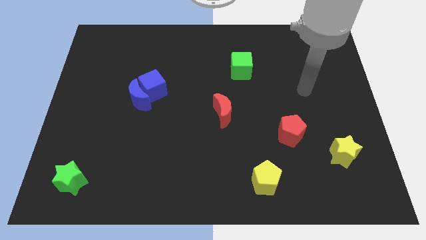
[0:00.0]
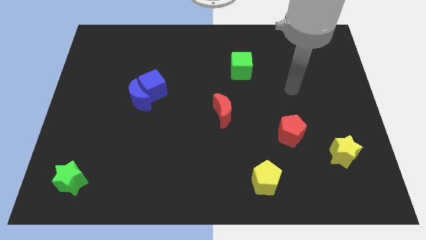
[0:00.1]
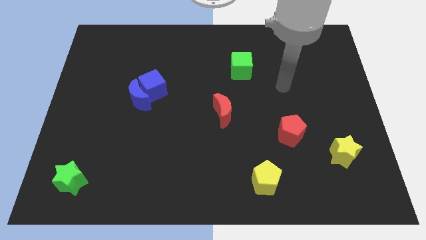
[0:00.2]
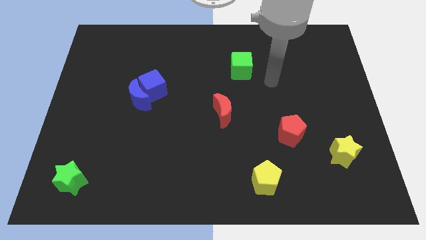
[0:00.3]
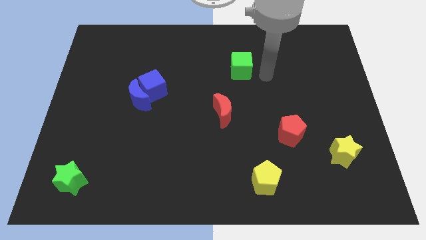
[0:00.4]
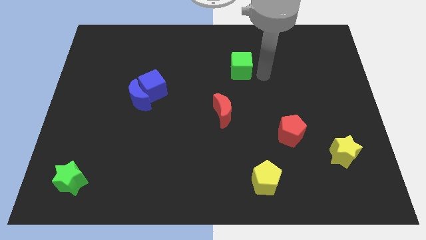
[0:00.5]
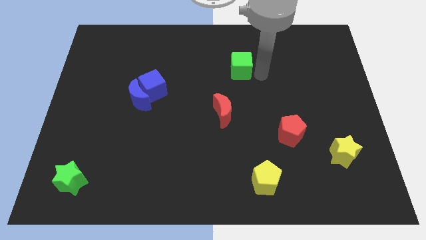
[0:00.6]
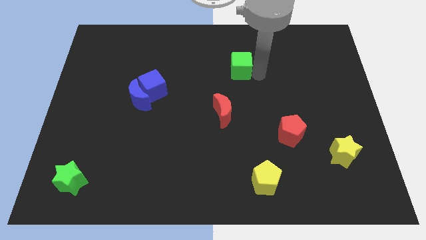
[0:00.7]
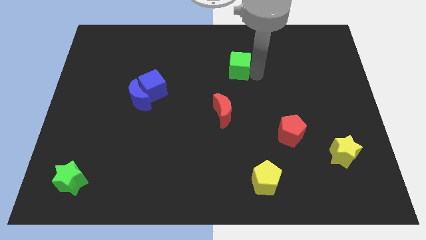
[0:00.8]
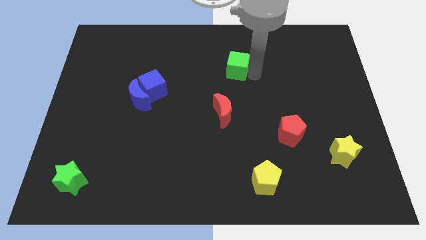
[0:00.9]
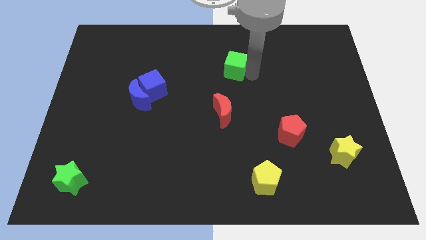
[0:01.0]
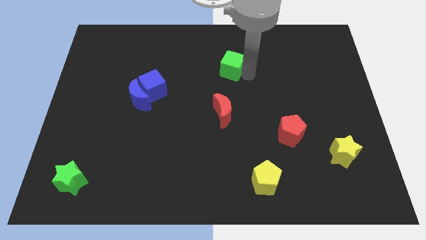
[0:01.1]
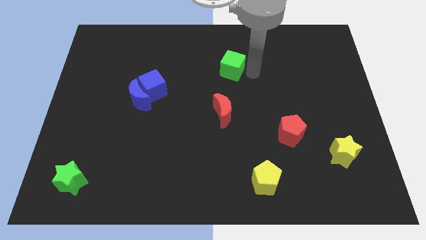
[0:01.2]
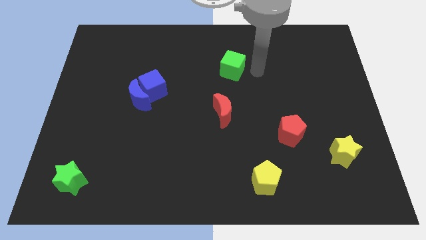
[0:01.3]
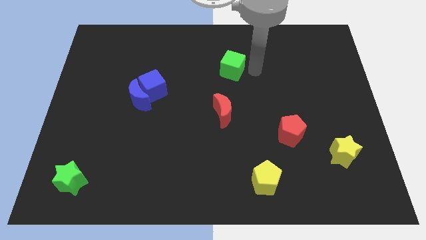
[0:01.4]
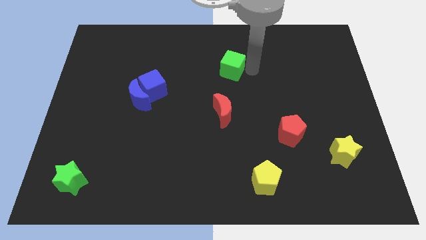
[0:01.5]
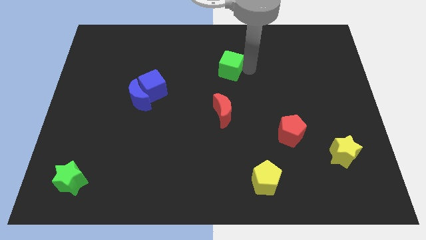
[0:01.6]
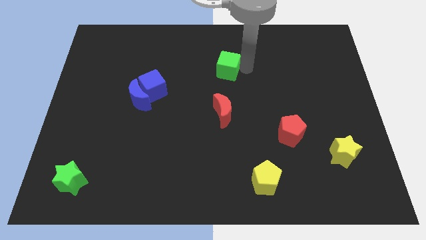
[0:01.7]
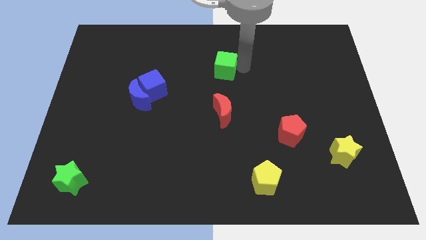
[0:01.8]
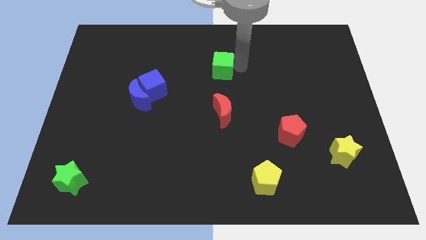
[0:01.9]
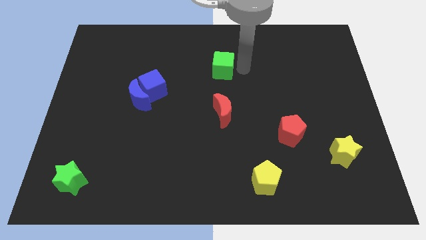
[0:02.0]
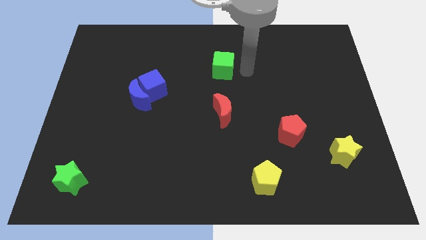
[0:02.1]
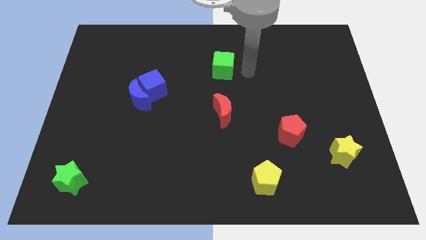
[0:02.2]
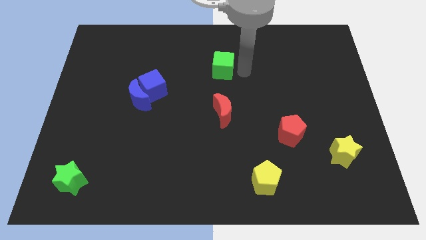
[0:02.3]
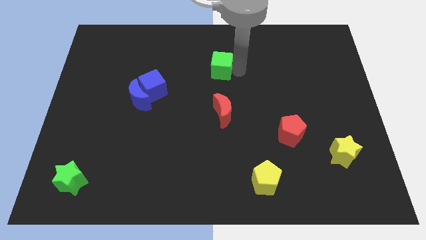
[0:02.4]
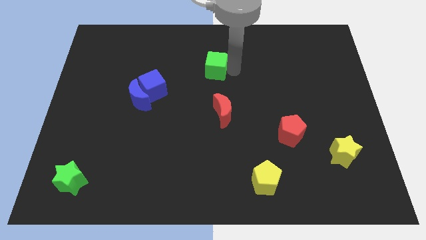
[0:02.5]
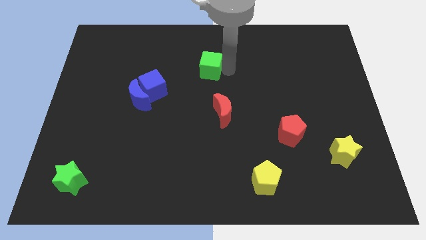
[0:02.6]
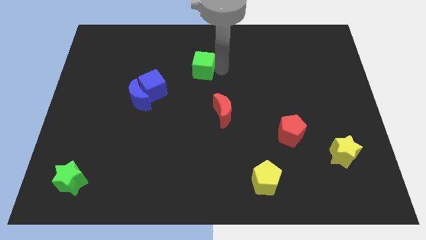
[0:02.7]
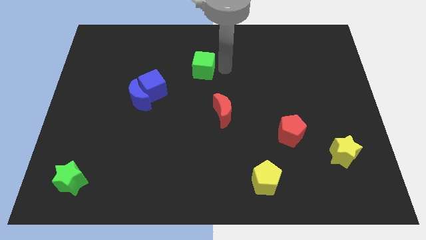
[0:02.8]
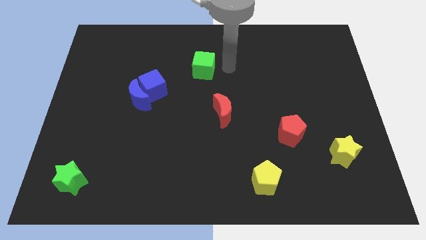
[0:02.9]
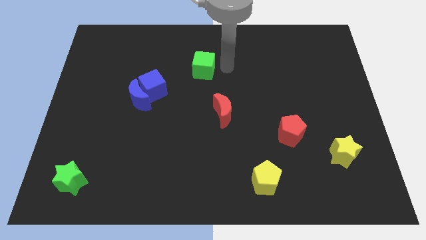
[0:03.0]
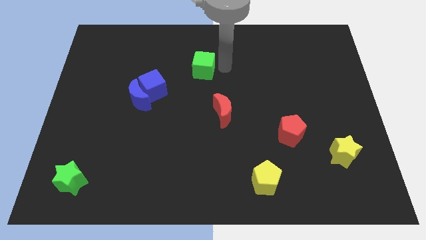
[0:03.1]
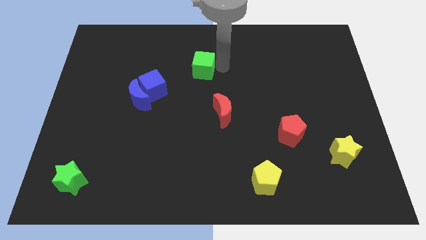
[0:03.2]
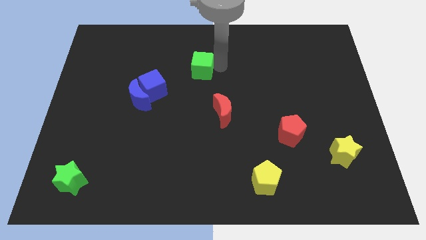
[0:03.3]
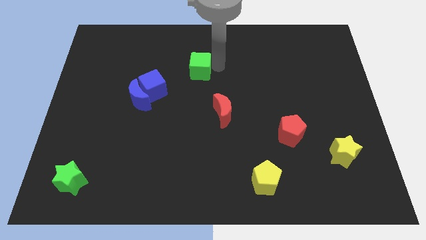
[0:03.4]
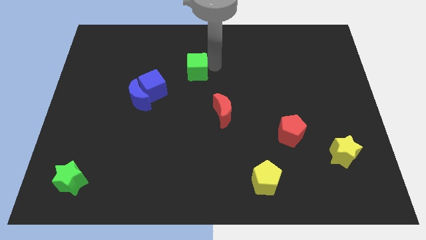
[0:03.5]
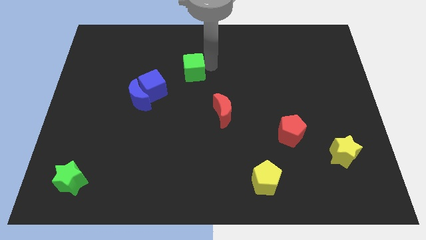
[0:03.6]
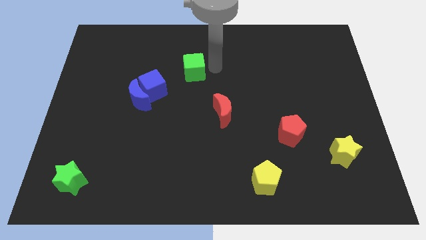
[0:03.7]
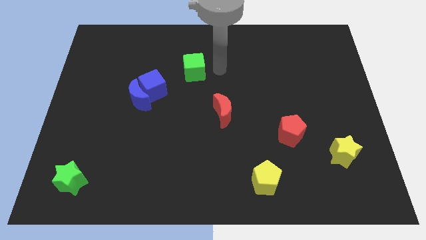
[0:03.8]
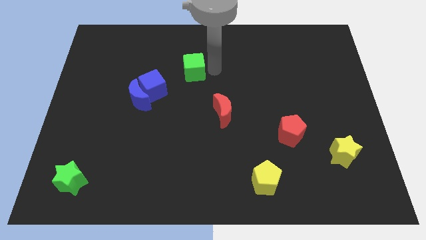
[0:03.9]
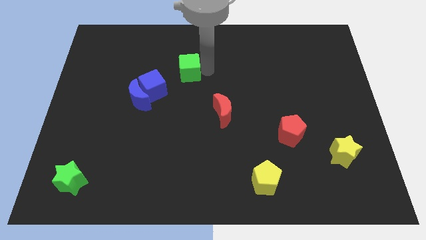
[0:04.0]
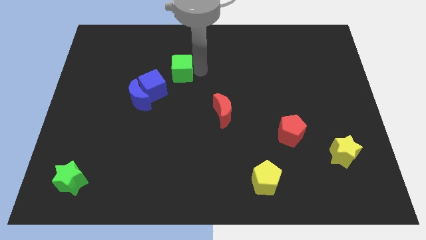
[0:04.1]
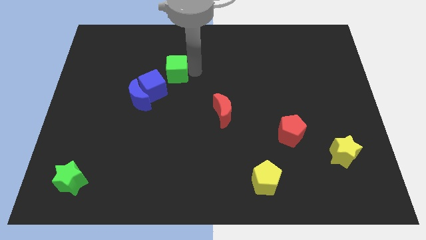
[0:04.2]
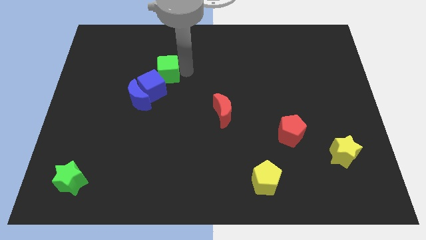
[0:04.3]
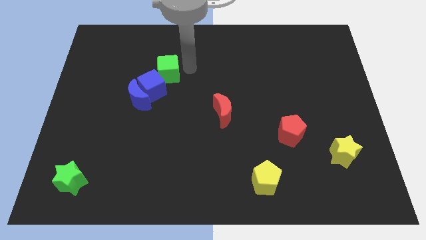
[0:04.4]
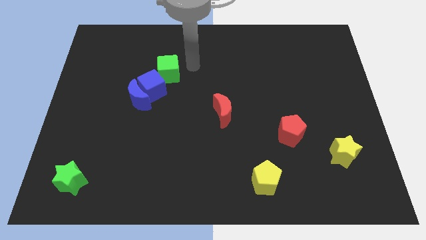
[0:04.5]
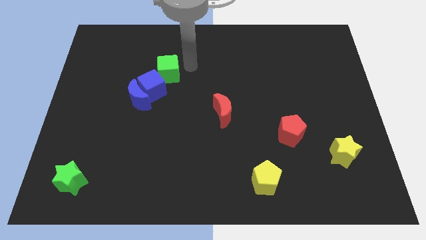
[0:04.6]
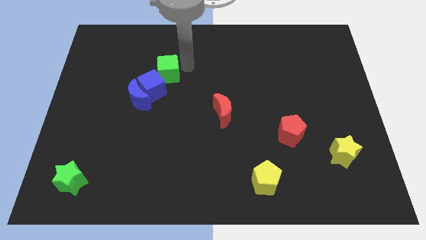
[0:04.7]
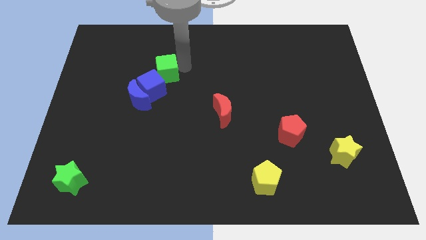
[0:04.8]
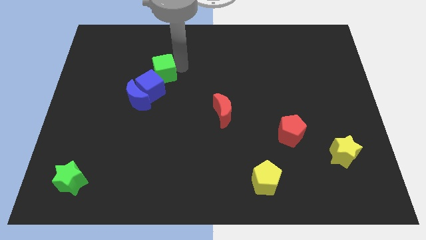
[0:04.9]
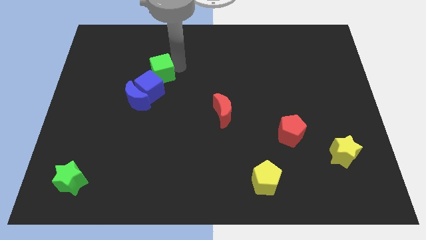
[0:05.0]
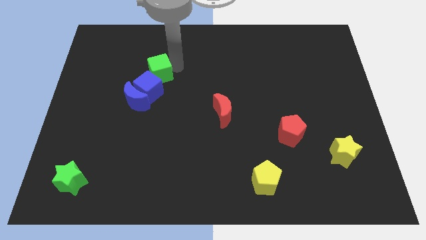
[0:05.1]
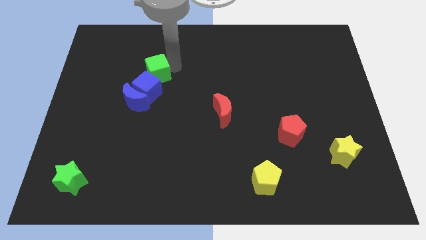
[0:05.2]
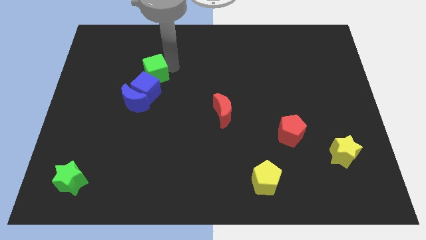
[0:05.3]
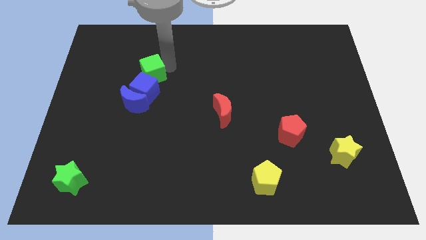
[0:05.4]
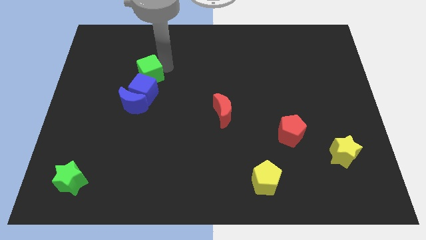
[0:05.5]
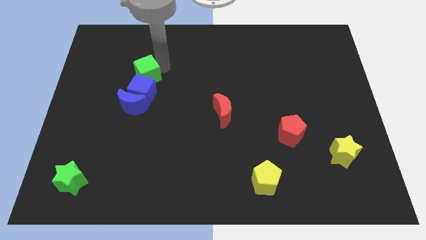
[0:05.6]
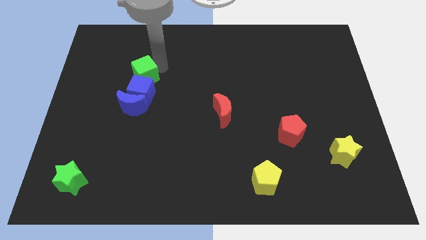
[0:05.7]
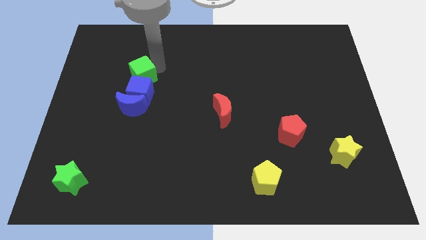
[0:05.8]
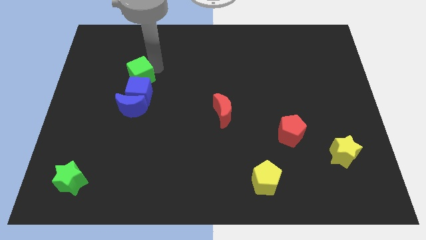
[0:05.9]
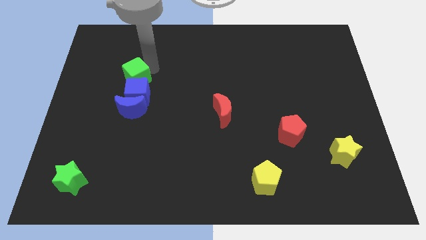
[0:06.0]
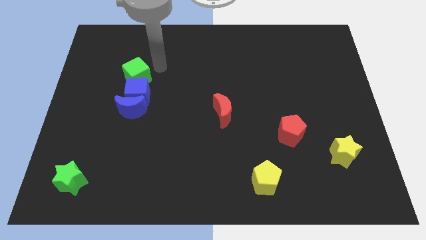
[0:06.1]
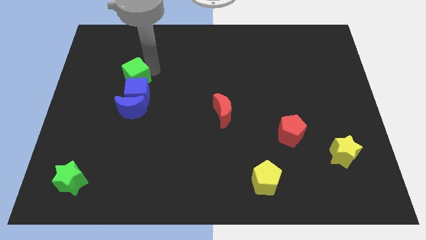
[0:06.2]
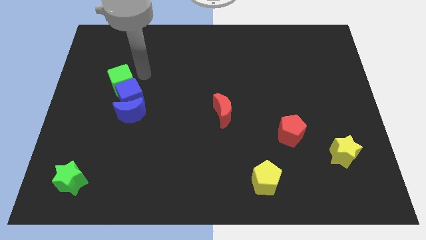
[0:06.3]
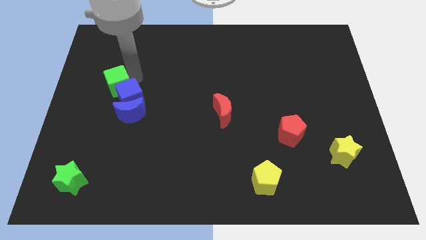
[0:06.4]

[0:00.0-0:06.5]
slide the green cube to the left of the blue cube
